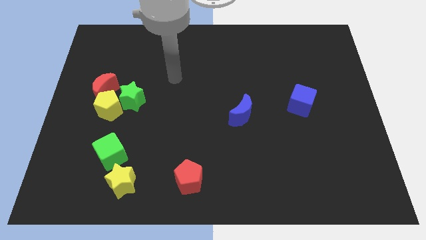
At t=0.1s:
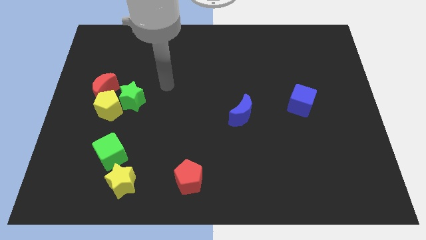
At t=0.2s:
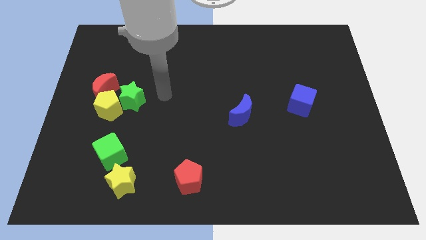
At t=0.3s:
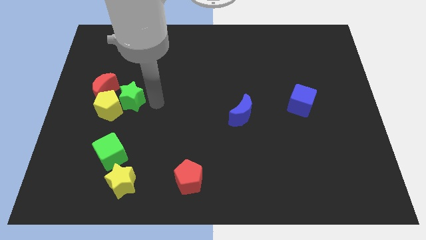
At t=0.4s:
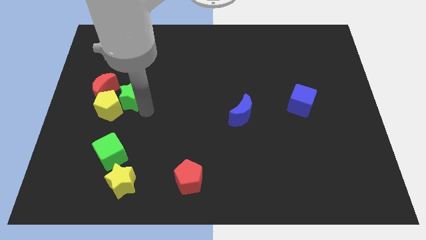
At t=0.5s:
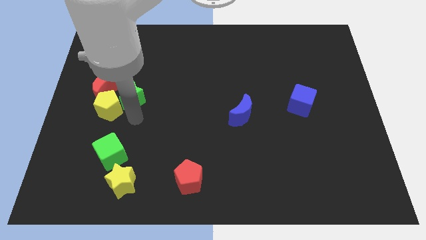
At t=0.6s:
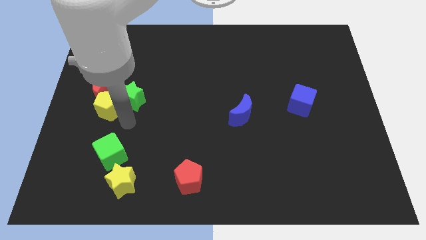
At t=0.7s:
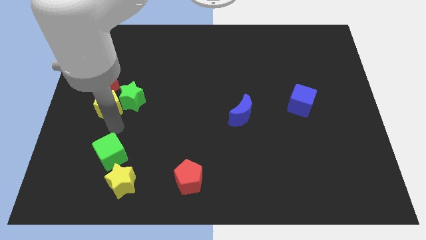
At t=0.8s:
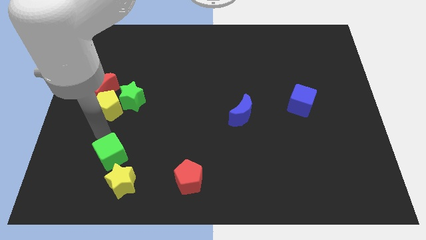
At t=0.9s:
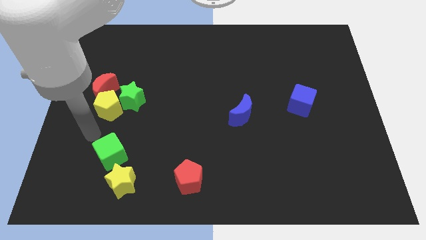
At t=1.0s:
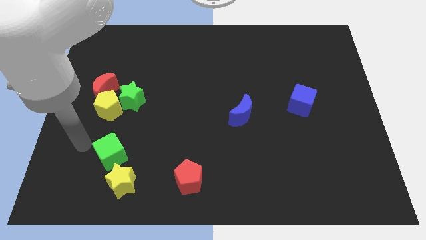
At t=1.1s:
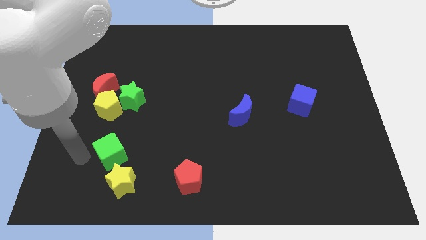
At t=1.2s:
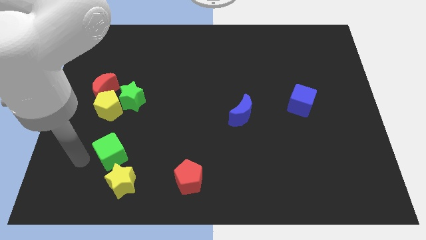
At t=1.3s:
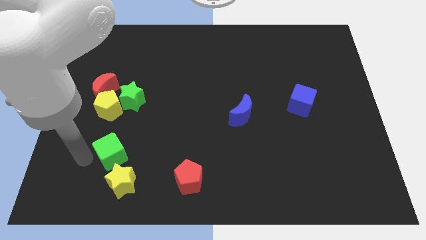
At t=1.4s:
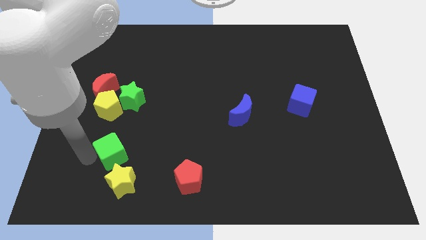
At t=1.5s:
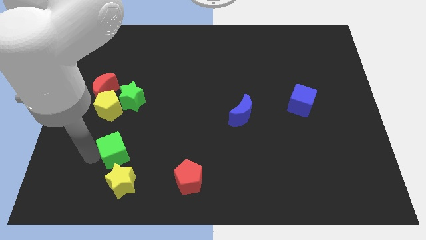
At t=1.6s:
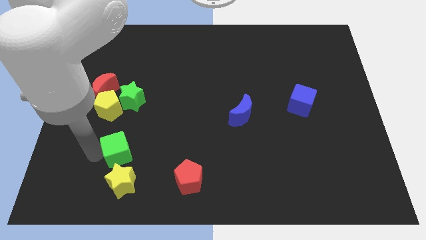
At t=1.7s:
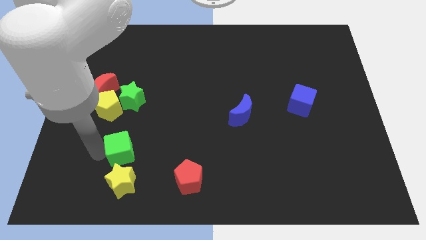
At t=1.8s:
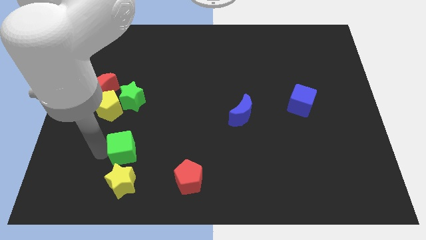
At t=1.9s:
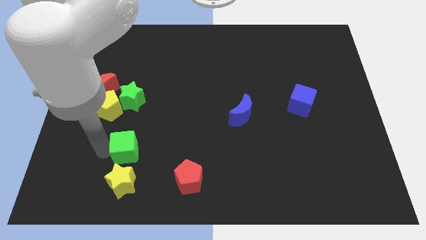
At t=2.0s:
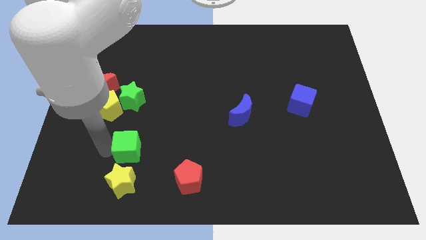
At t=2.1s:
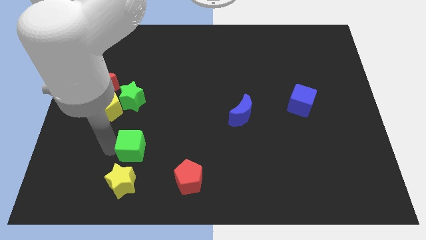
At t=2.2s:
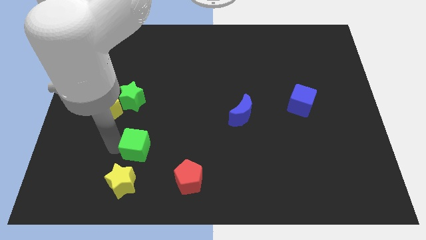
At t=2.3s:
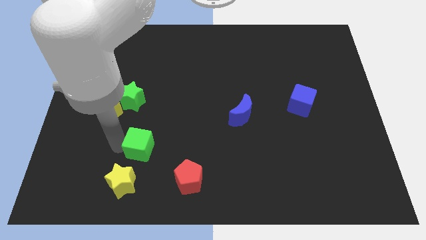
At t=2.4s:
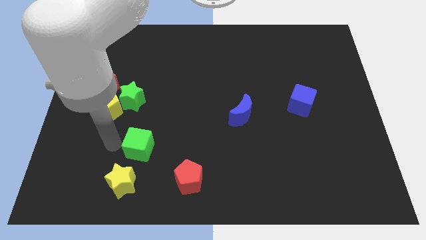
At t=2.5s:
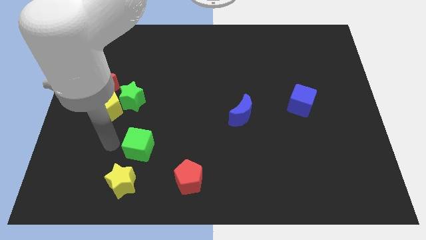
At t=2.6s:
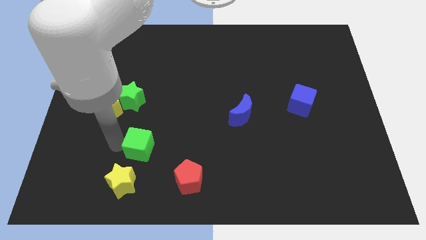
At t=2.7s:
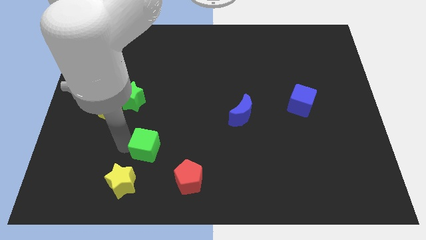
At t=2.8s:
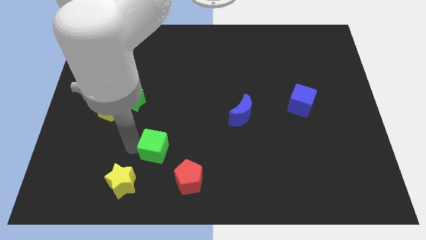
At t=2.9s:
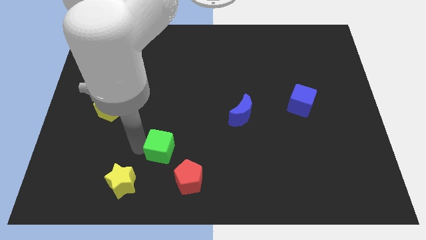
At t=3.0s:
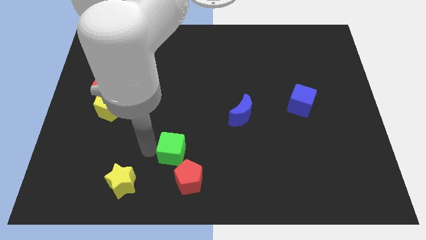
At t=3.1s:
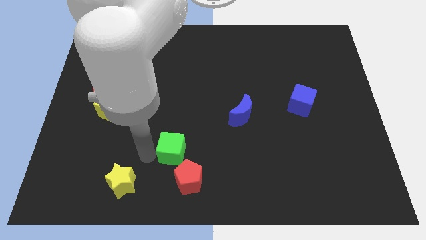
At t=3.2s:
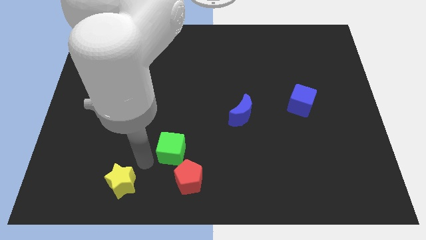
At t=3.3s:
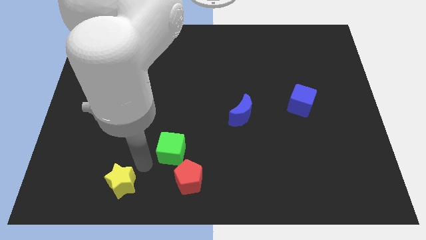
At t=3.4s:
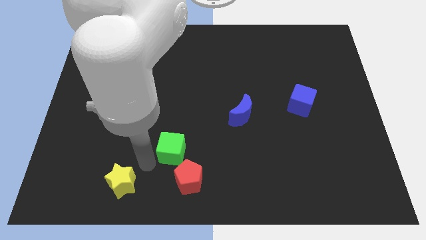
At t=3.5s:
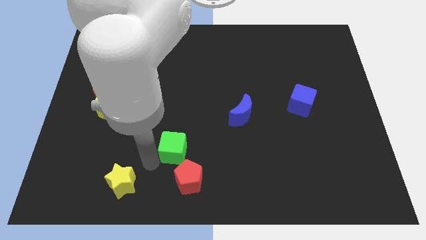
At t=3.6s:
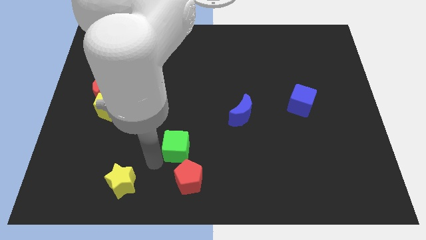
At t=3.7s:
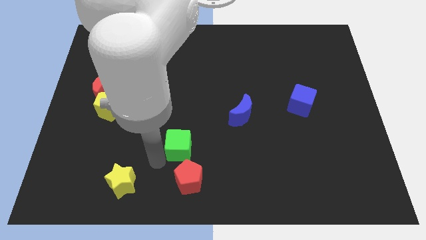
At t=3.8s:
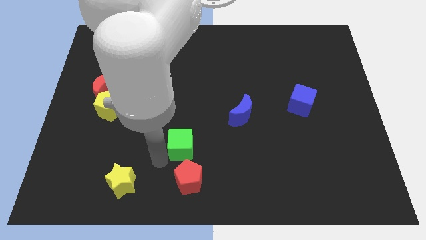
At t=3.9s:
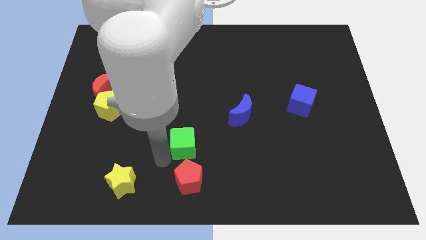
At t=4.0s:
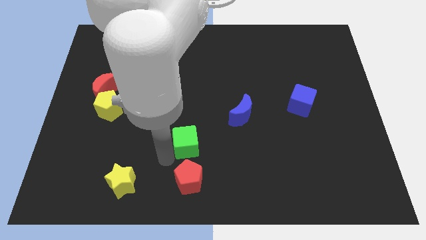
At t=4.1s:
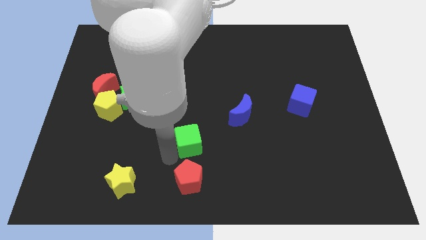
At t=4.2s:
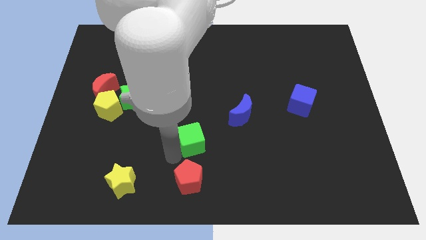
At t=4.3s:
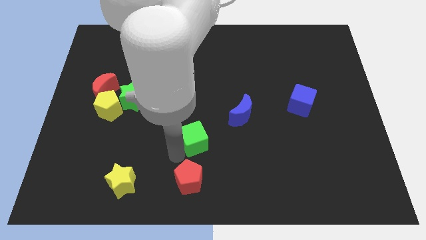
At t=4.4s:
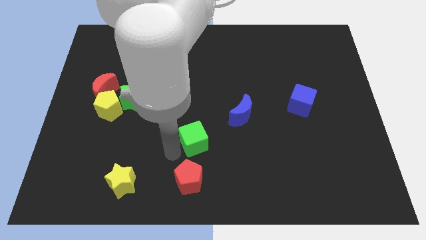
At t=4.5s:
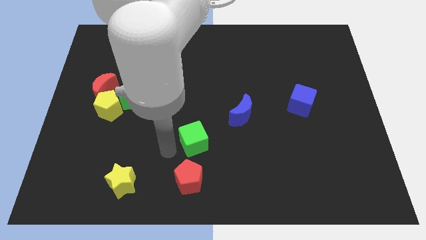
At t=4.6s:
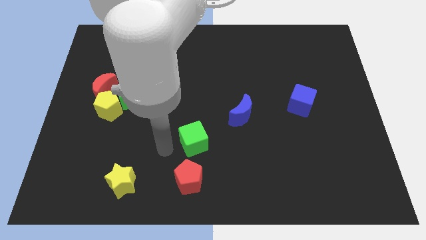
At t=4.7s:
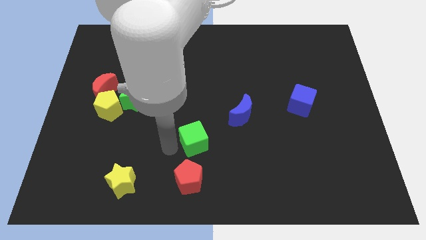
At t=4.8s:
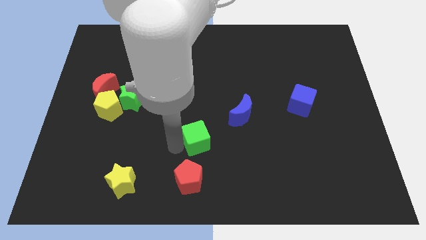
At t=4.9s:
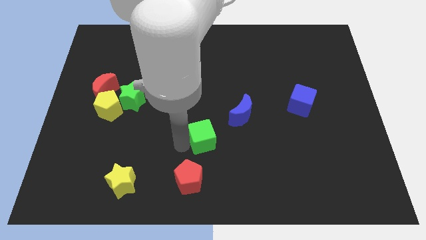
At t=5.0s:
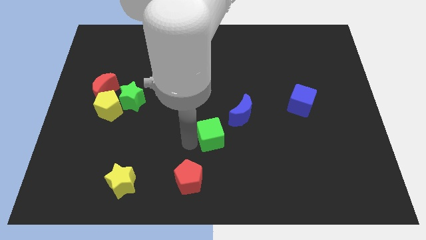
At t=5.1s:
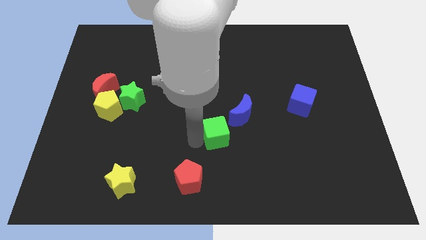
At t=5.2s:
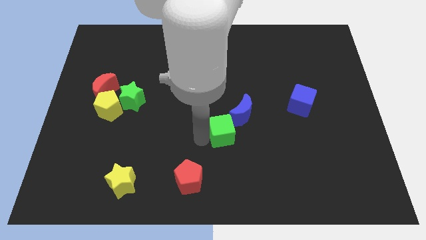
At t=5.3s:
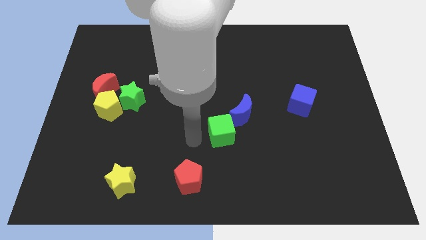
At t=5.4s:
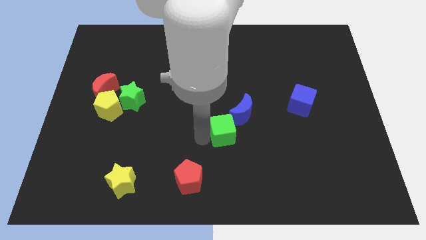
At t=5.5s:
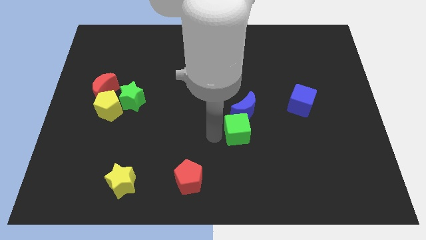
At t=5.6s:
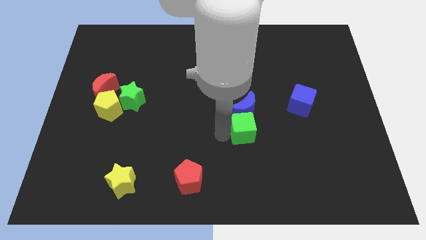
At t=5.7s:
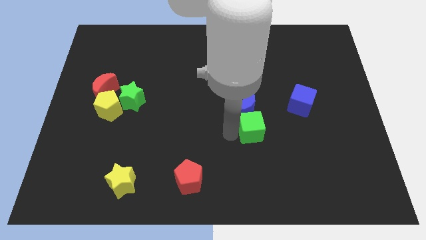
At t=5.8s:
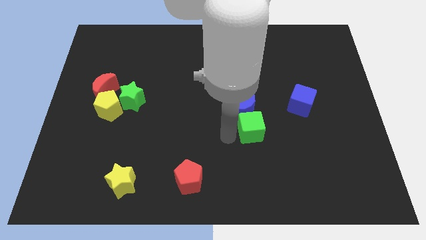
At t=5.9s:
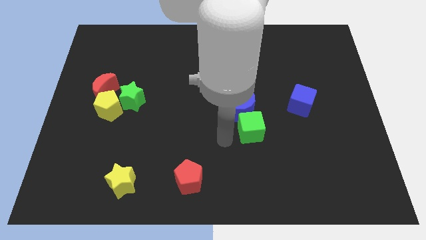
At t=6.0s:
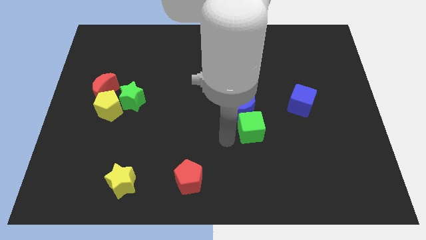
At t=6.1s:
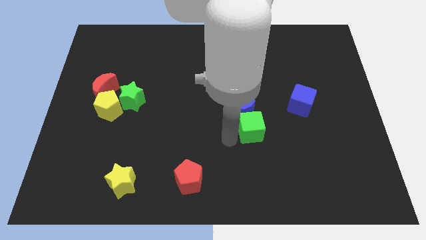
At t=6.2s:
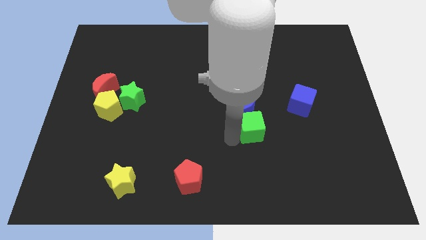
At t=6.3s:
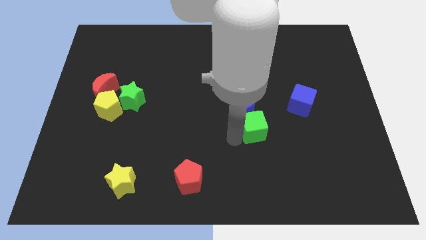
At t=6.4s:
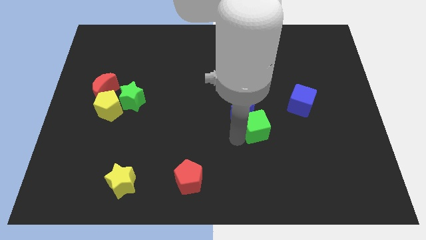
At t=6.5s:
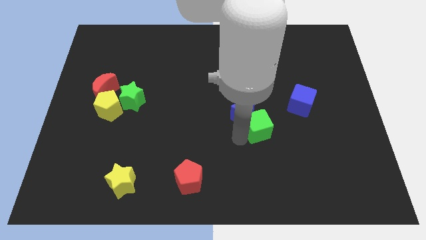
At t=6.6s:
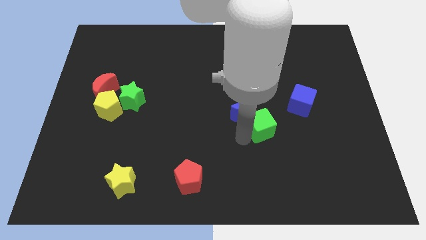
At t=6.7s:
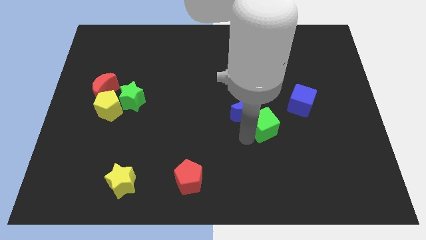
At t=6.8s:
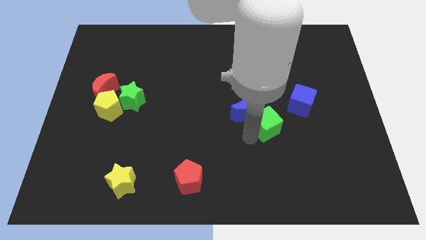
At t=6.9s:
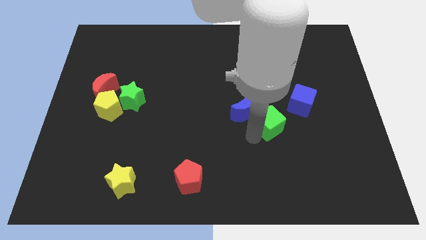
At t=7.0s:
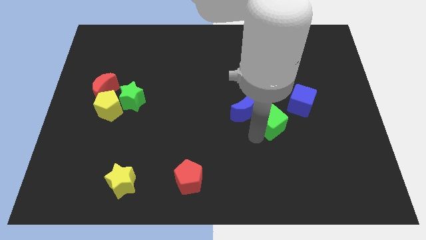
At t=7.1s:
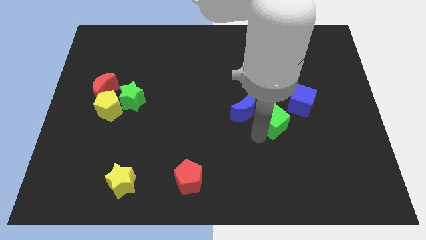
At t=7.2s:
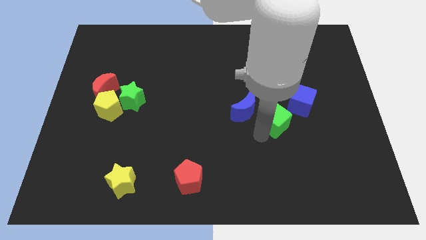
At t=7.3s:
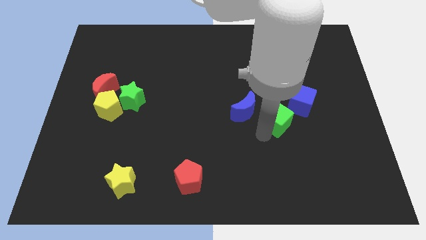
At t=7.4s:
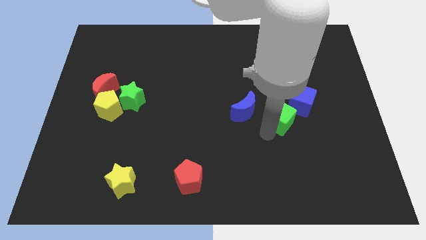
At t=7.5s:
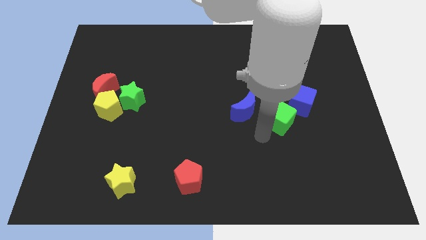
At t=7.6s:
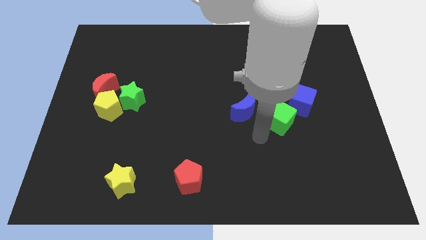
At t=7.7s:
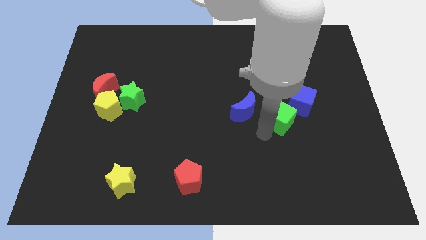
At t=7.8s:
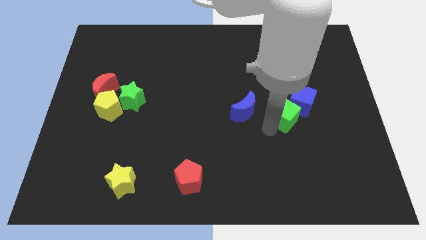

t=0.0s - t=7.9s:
put the green cube next to the blue cube

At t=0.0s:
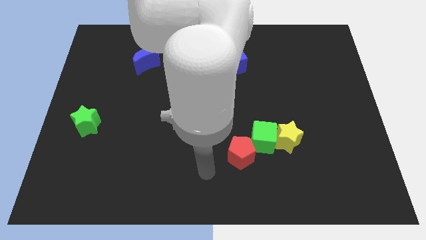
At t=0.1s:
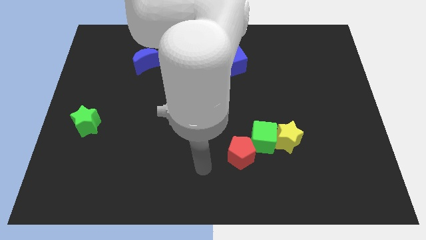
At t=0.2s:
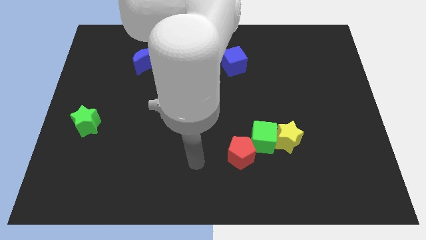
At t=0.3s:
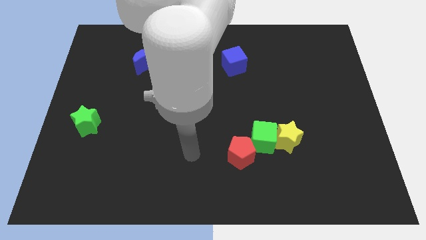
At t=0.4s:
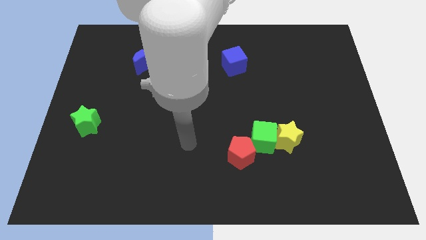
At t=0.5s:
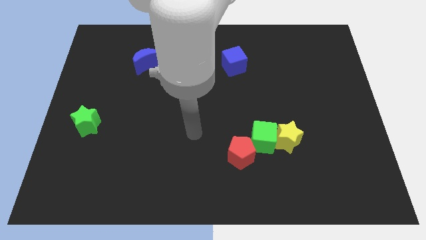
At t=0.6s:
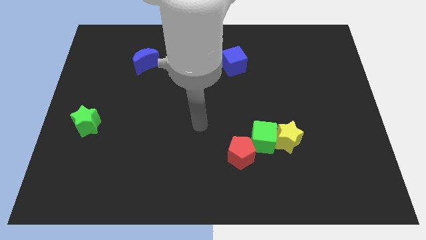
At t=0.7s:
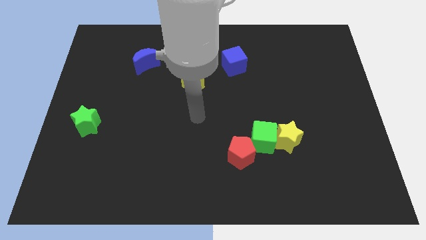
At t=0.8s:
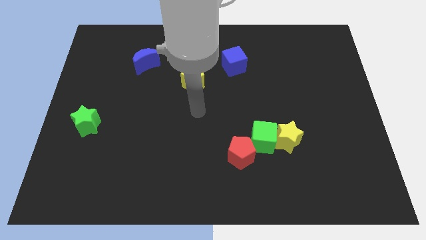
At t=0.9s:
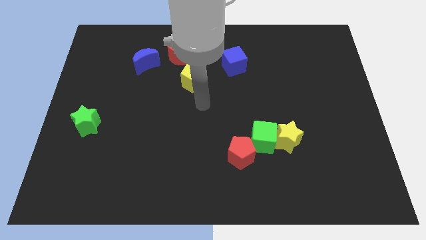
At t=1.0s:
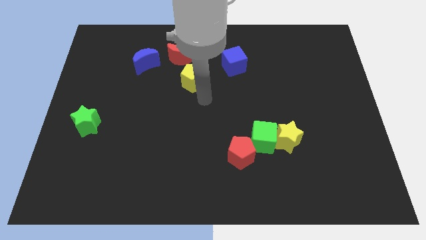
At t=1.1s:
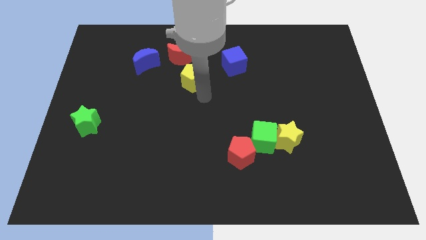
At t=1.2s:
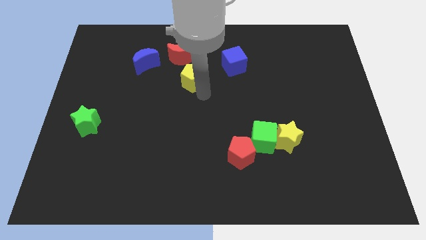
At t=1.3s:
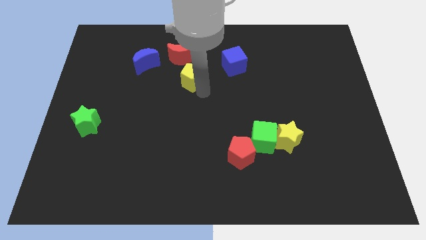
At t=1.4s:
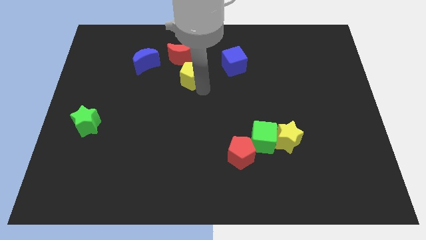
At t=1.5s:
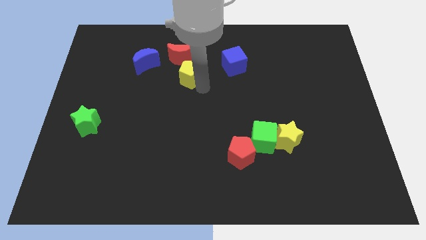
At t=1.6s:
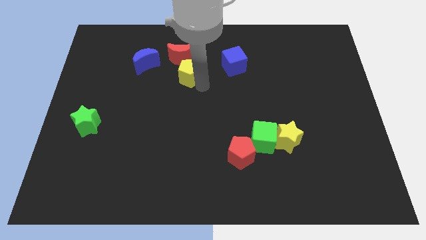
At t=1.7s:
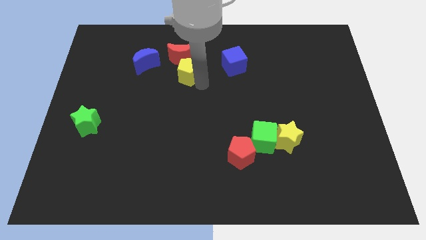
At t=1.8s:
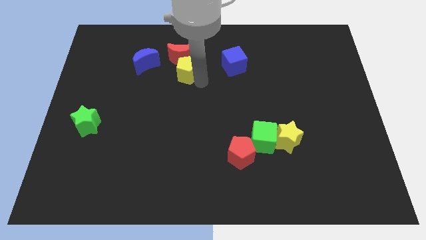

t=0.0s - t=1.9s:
move the yellow pentagon close to the red moon
